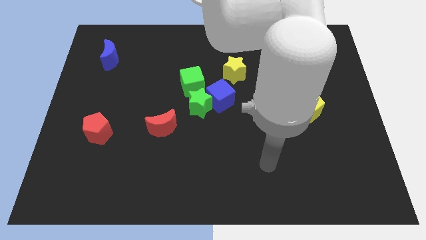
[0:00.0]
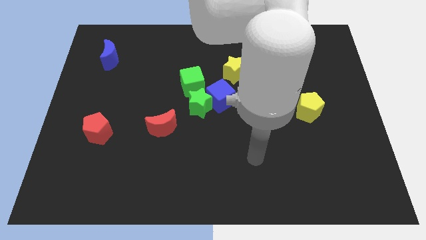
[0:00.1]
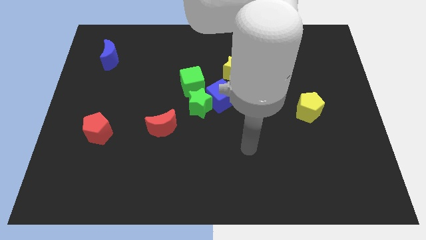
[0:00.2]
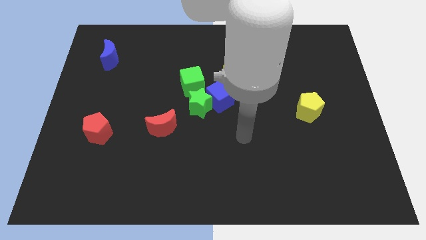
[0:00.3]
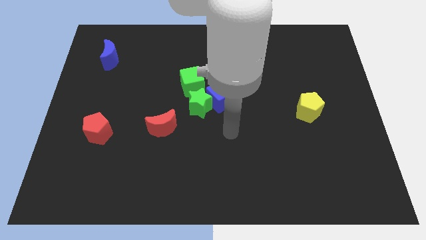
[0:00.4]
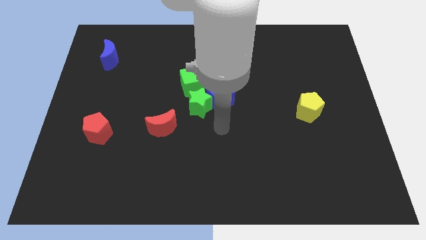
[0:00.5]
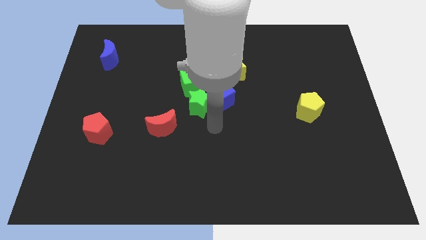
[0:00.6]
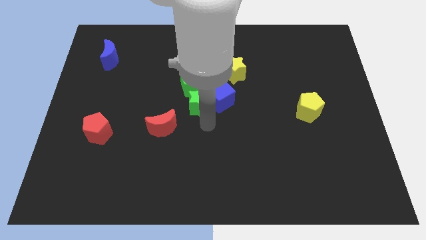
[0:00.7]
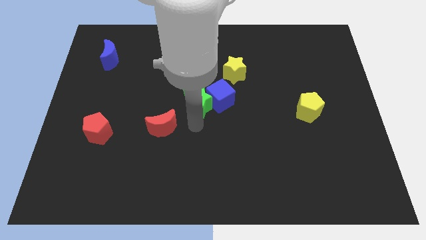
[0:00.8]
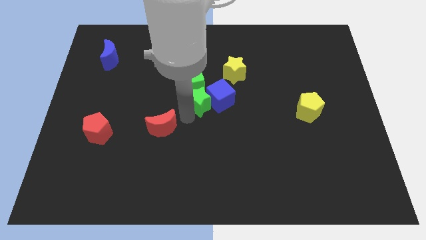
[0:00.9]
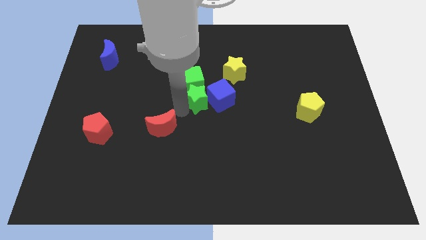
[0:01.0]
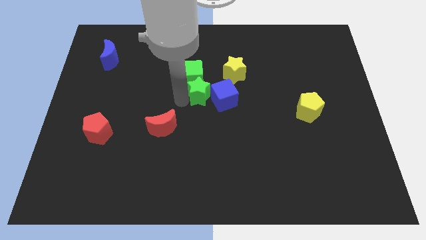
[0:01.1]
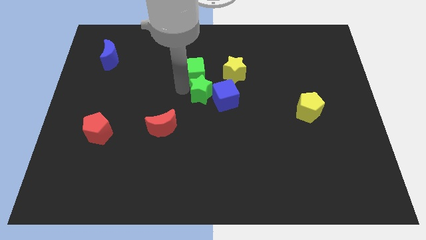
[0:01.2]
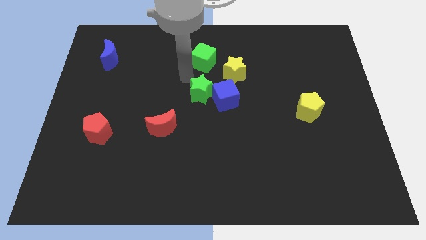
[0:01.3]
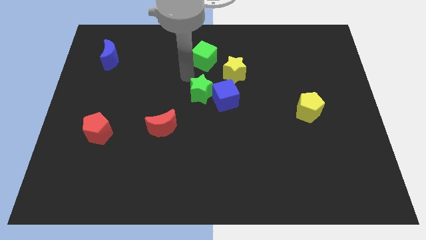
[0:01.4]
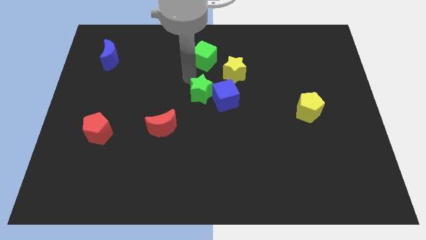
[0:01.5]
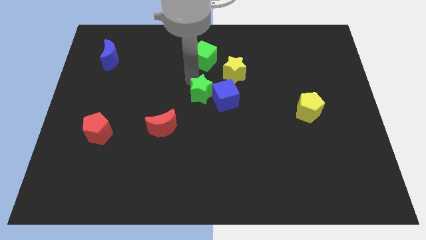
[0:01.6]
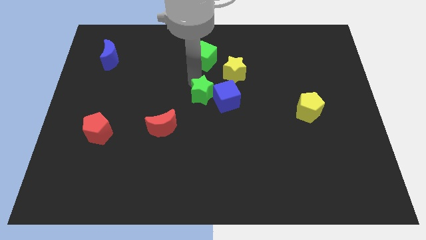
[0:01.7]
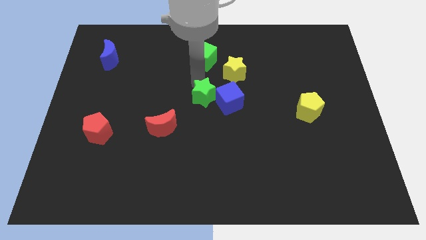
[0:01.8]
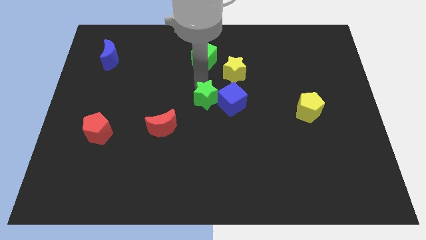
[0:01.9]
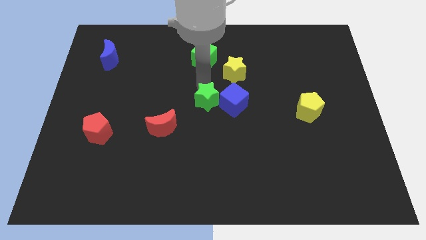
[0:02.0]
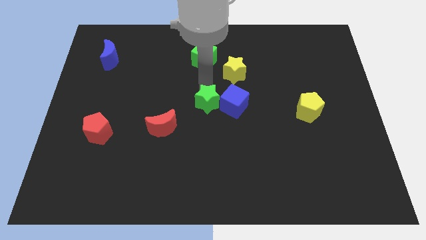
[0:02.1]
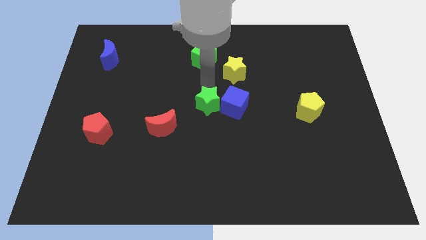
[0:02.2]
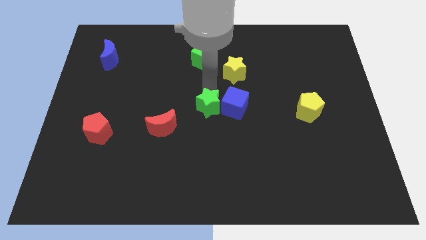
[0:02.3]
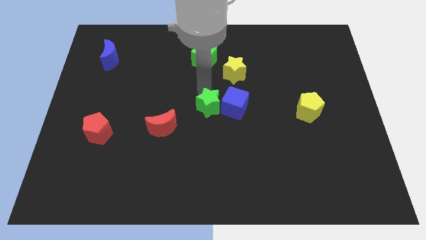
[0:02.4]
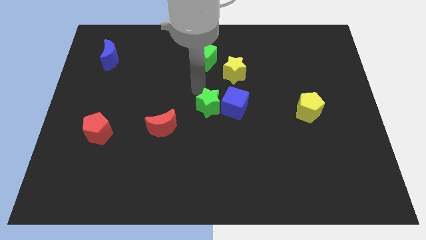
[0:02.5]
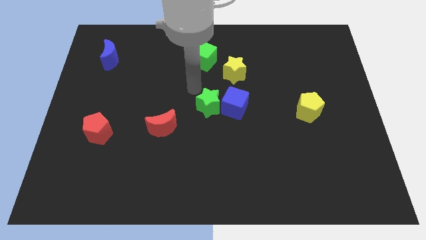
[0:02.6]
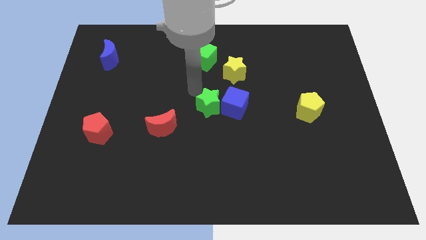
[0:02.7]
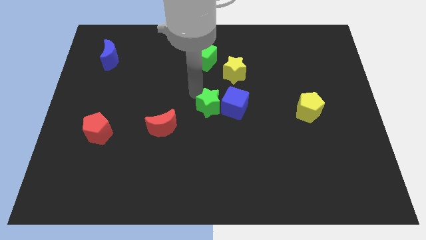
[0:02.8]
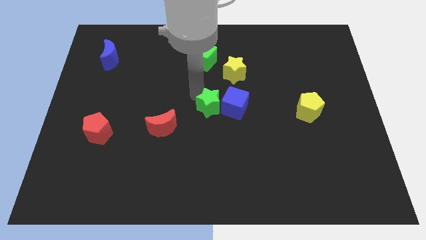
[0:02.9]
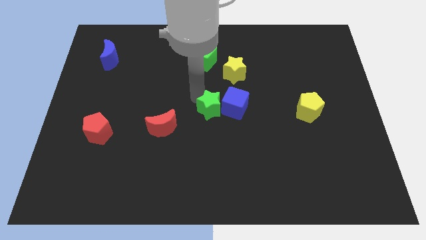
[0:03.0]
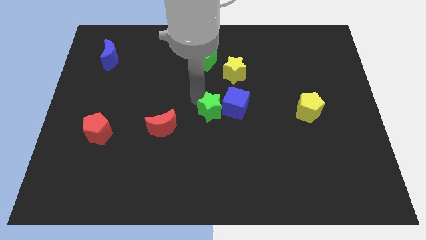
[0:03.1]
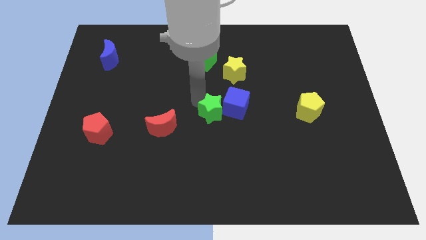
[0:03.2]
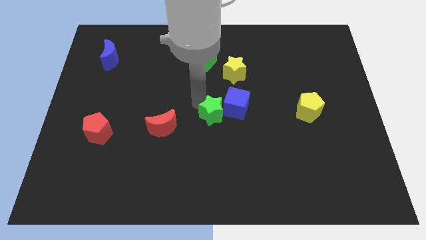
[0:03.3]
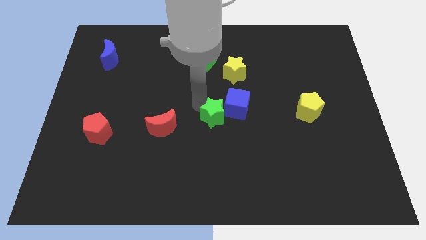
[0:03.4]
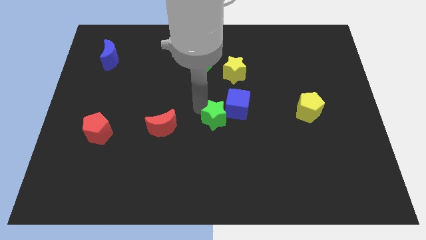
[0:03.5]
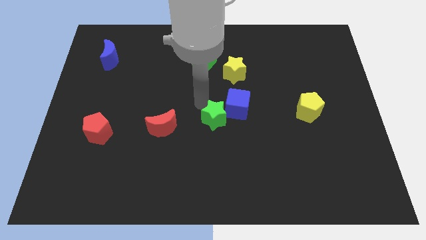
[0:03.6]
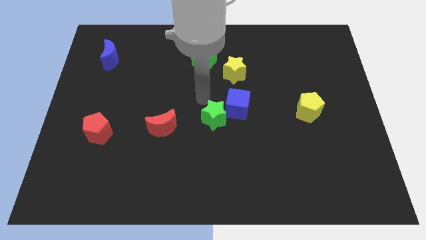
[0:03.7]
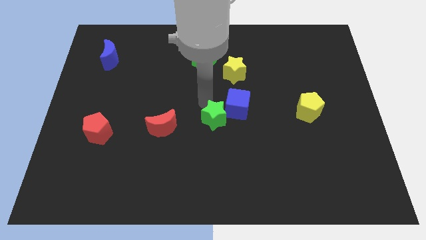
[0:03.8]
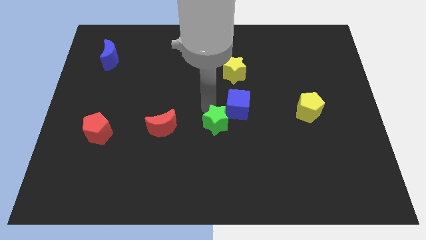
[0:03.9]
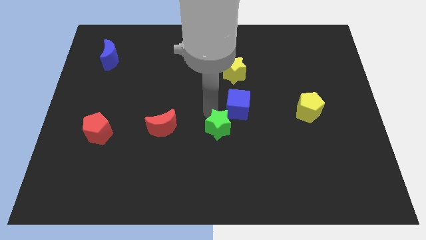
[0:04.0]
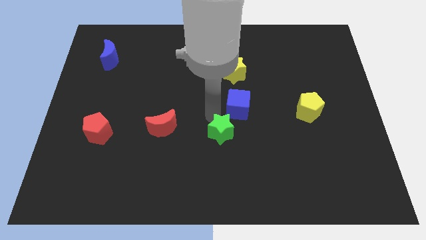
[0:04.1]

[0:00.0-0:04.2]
move the green star away from the group of blocks

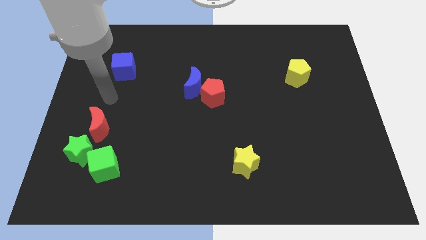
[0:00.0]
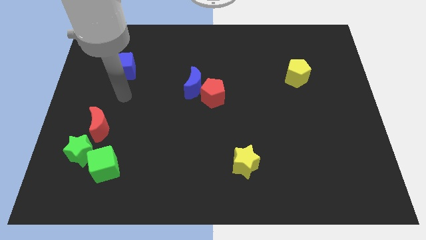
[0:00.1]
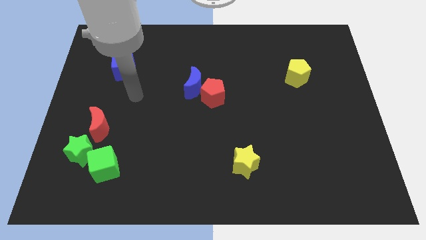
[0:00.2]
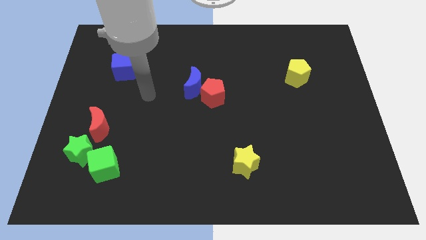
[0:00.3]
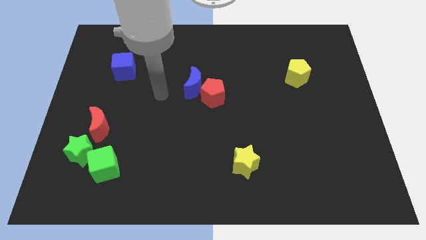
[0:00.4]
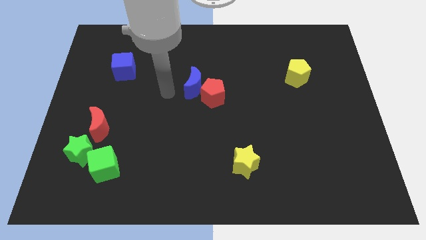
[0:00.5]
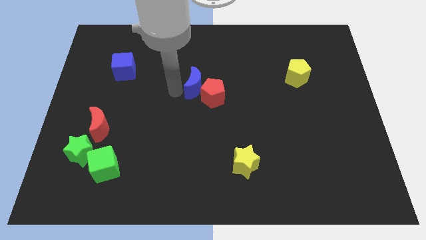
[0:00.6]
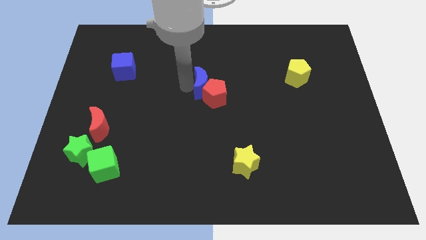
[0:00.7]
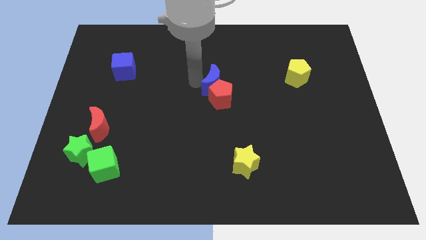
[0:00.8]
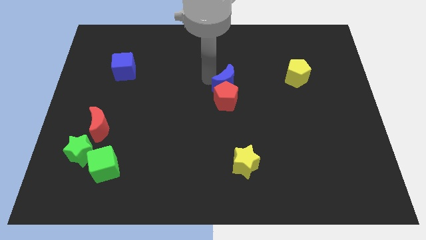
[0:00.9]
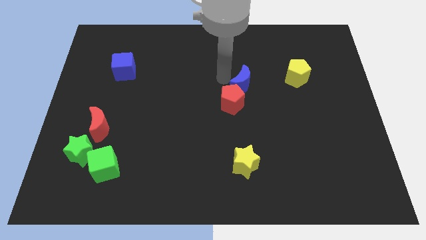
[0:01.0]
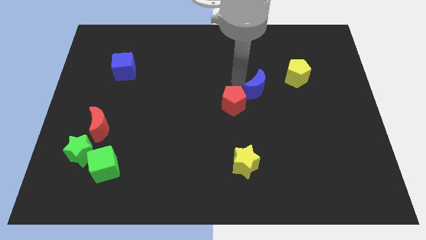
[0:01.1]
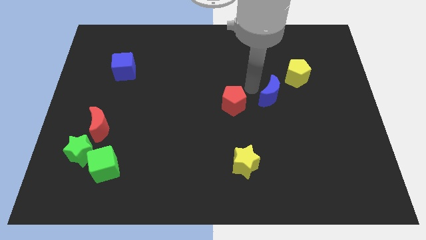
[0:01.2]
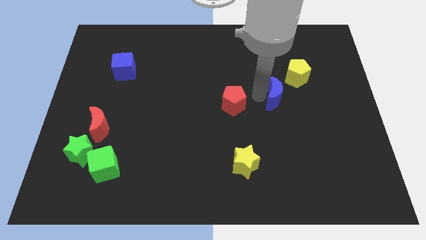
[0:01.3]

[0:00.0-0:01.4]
move the red pentagon away from the blue moon

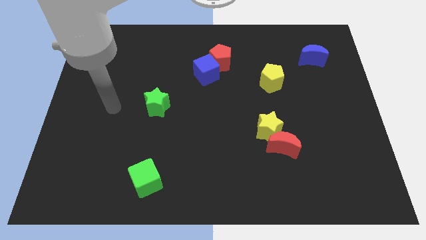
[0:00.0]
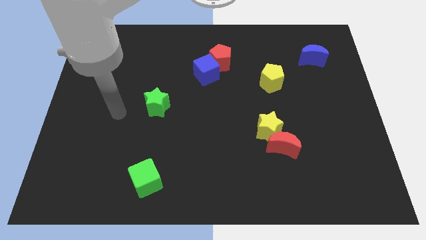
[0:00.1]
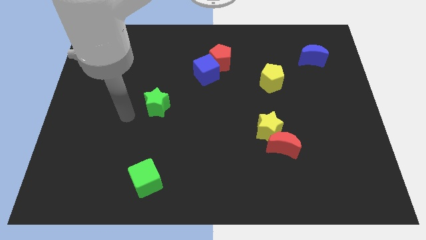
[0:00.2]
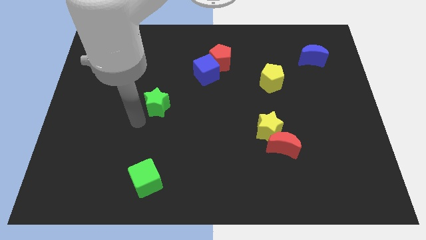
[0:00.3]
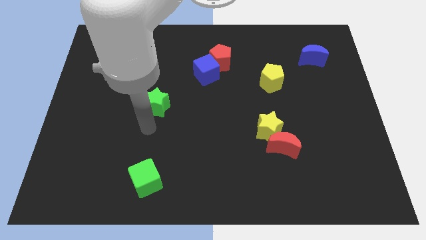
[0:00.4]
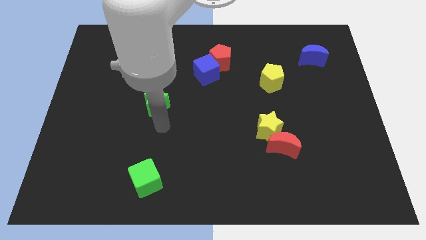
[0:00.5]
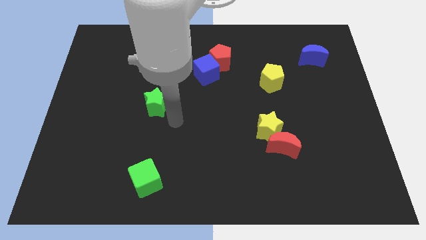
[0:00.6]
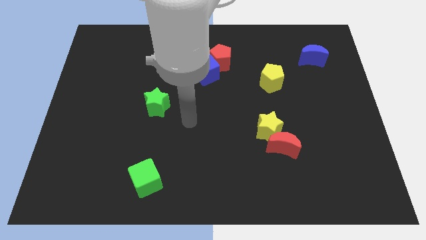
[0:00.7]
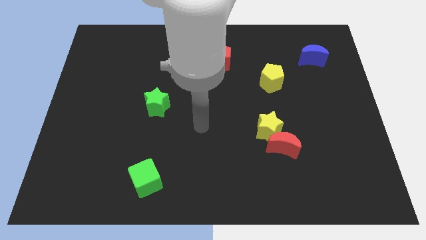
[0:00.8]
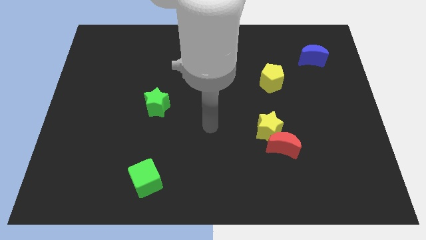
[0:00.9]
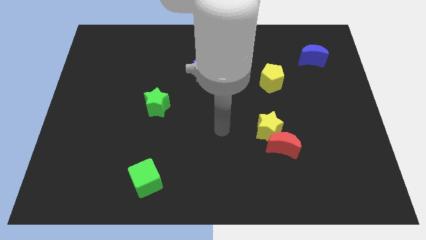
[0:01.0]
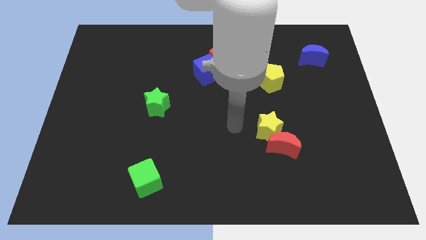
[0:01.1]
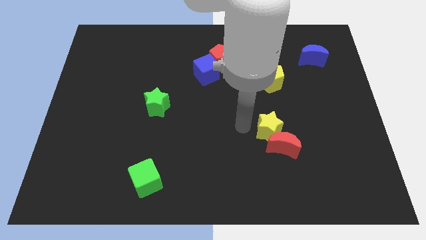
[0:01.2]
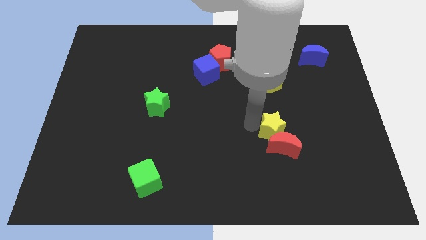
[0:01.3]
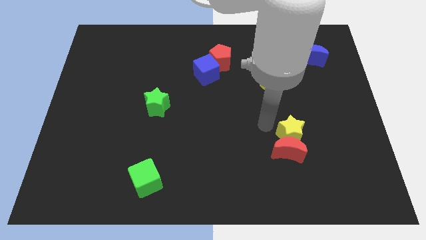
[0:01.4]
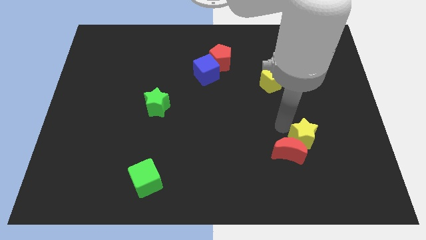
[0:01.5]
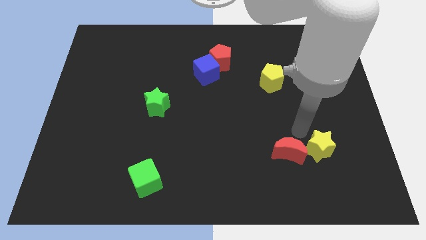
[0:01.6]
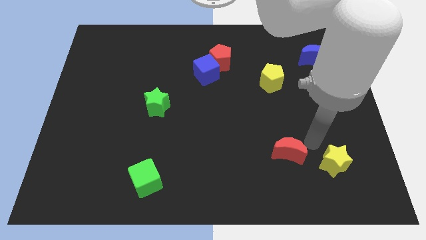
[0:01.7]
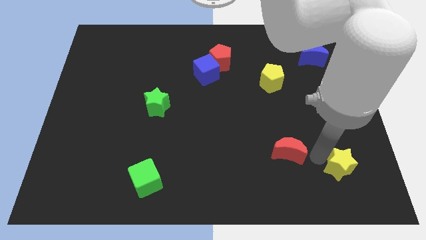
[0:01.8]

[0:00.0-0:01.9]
separate the red moon from the yellow star

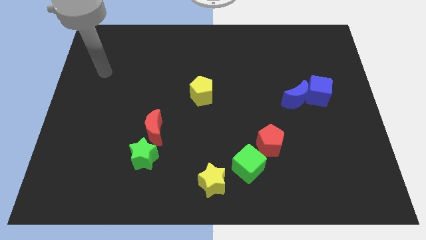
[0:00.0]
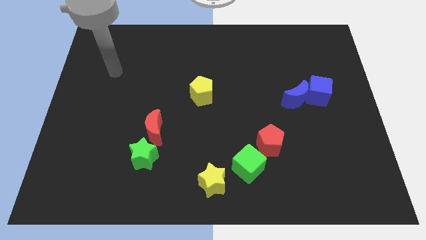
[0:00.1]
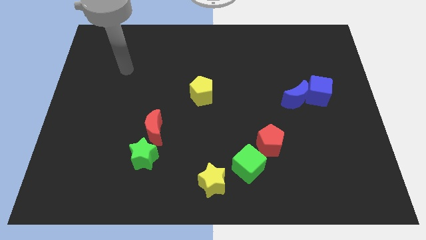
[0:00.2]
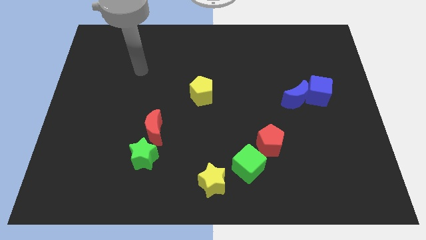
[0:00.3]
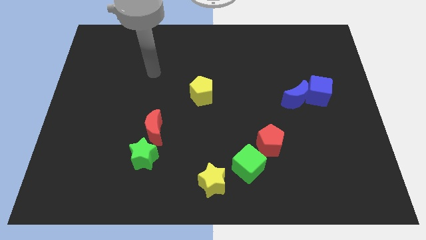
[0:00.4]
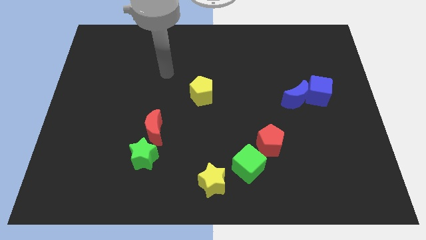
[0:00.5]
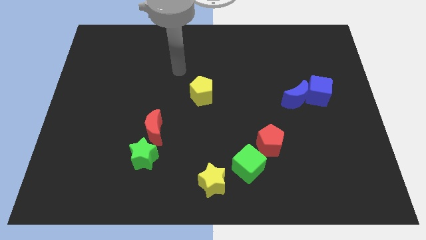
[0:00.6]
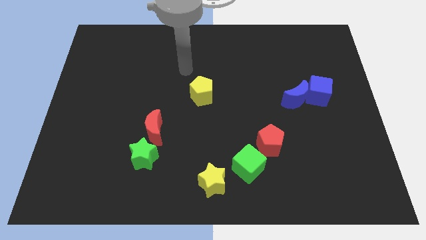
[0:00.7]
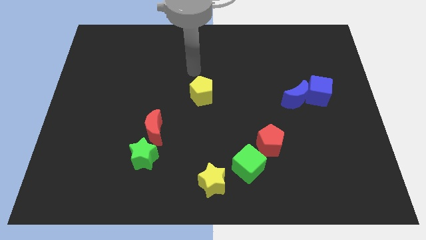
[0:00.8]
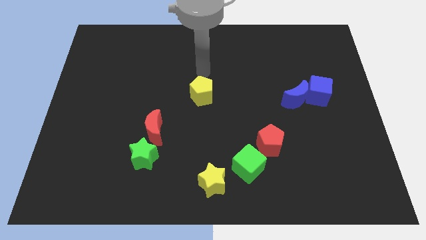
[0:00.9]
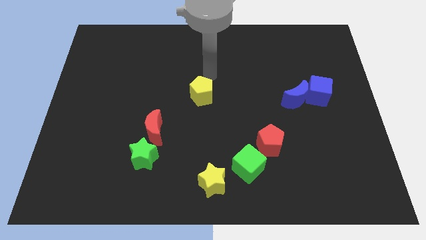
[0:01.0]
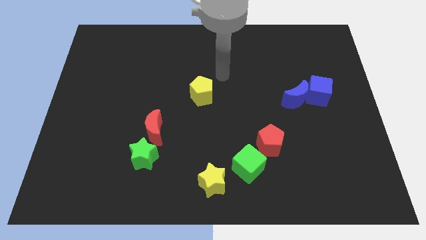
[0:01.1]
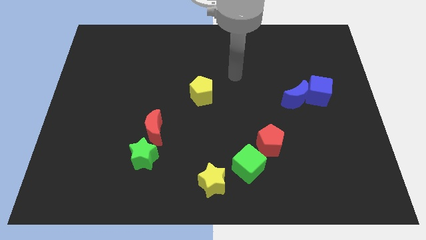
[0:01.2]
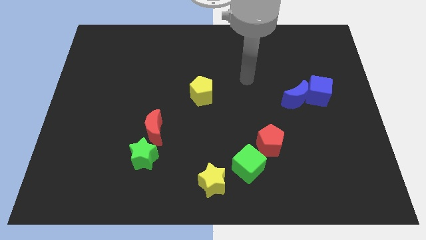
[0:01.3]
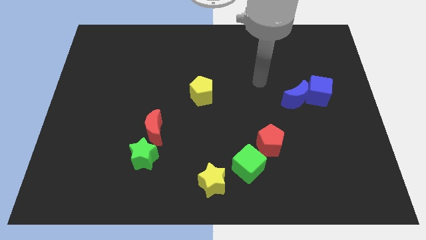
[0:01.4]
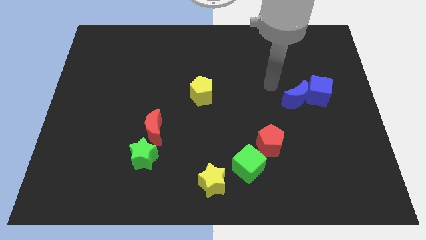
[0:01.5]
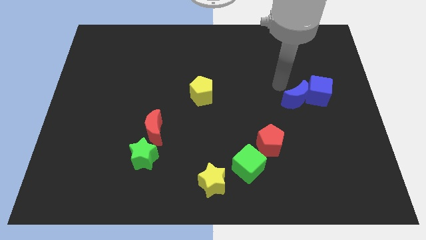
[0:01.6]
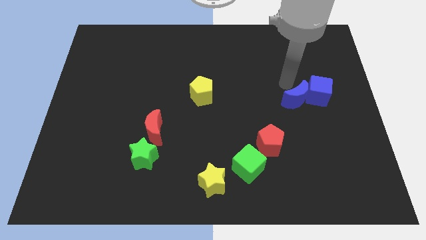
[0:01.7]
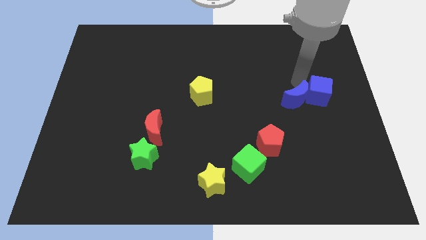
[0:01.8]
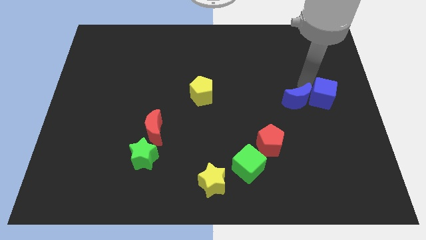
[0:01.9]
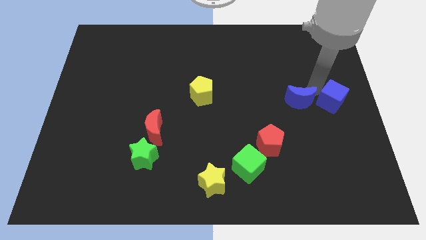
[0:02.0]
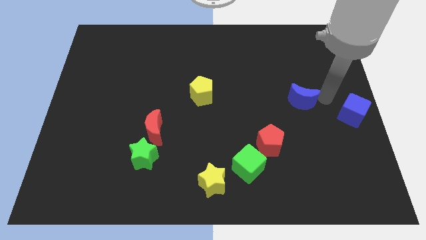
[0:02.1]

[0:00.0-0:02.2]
separate the blue moon from the blue cube
